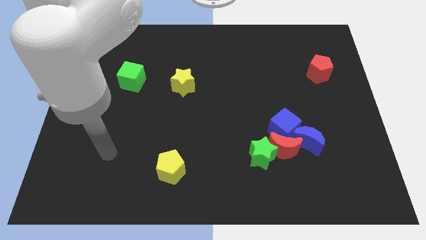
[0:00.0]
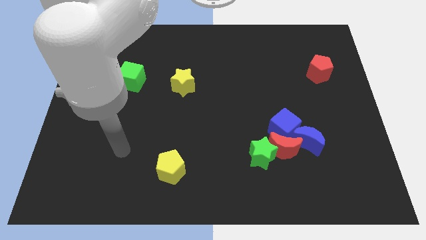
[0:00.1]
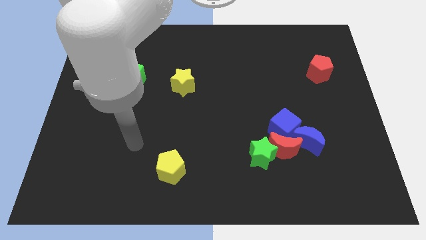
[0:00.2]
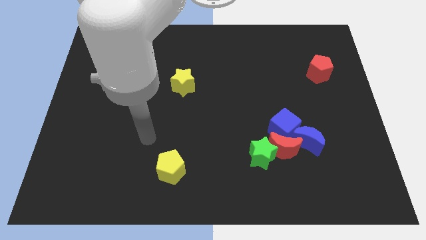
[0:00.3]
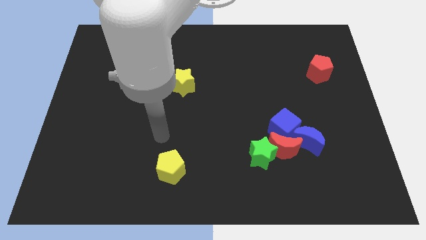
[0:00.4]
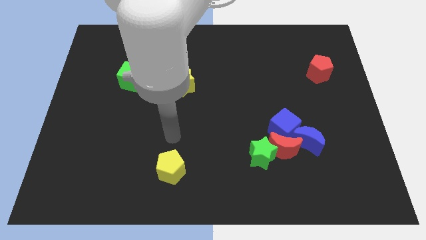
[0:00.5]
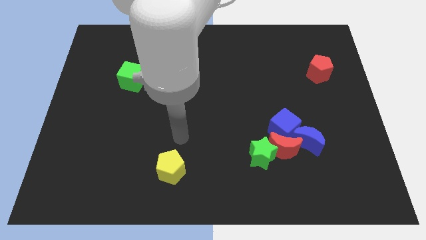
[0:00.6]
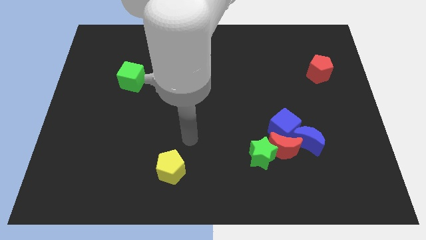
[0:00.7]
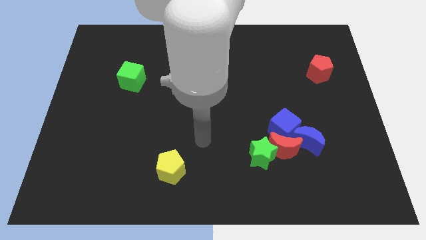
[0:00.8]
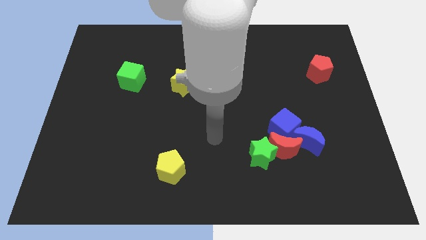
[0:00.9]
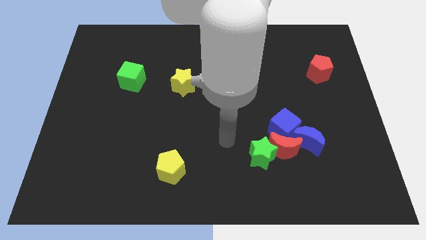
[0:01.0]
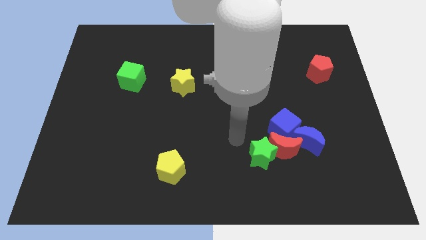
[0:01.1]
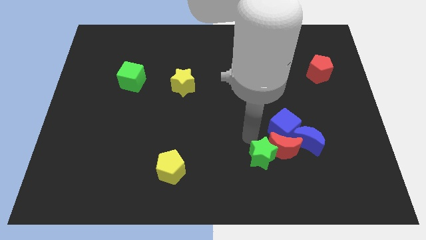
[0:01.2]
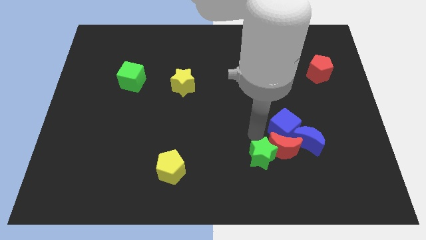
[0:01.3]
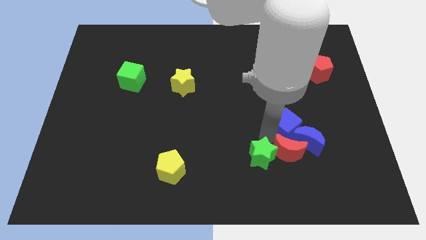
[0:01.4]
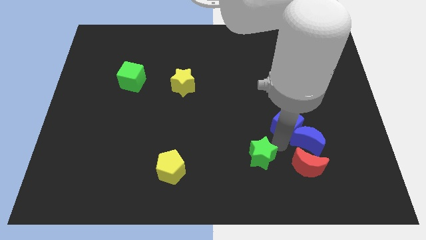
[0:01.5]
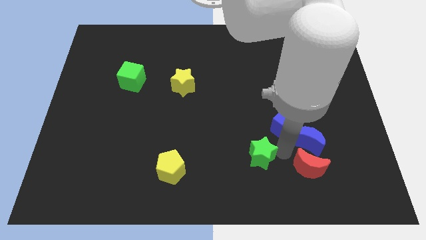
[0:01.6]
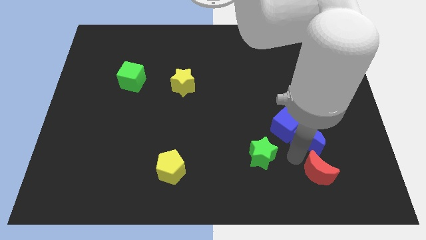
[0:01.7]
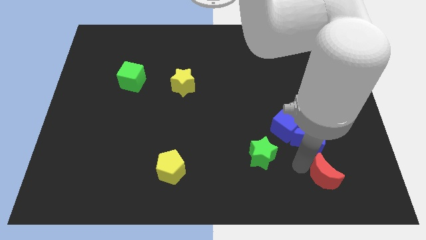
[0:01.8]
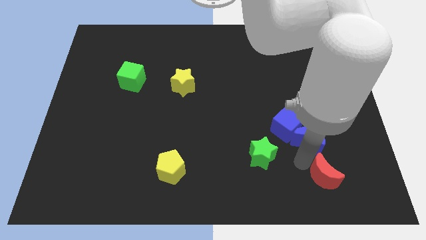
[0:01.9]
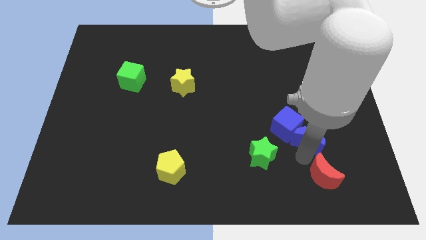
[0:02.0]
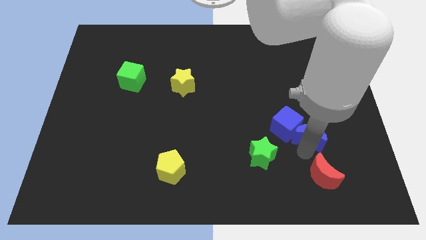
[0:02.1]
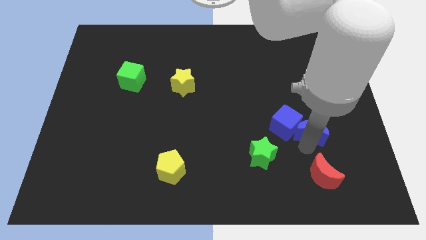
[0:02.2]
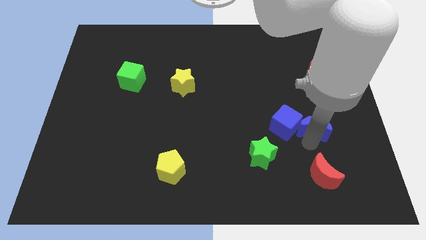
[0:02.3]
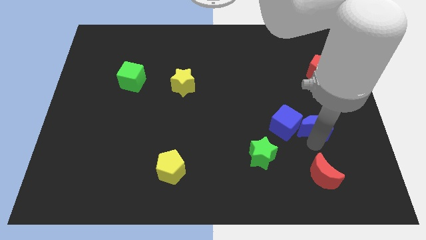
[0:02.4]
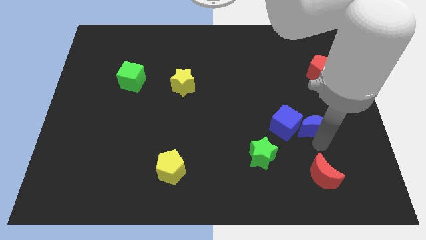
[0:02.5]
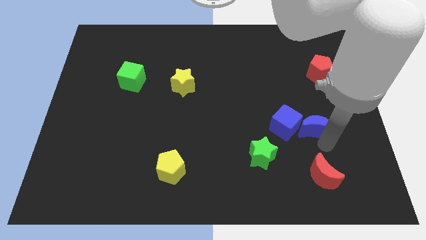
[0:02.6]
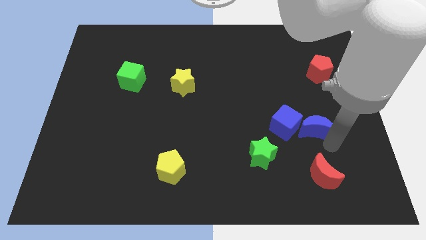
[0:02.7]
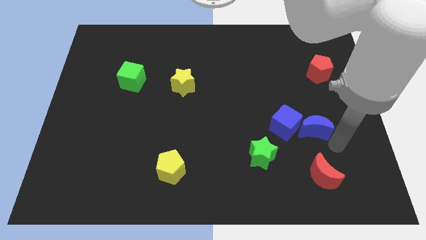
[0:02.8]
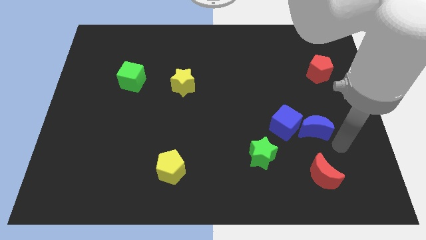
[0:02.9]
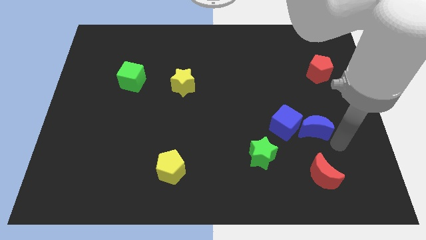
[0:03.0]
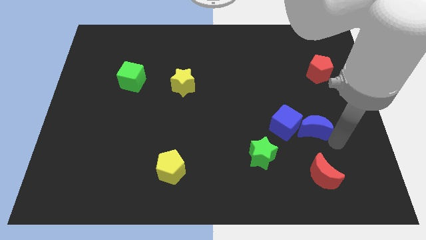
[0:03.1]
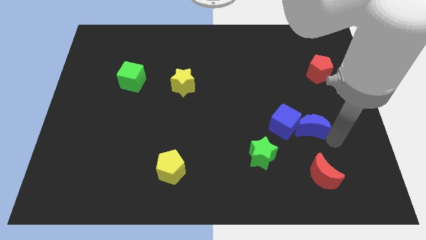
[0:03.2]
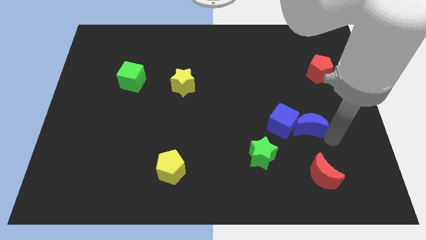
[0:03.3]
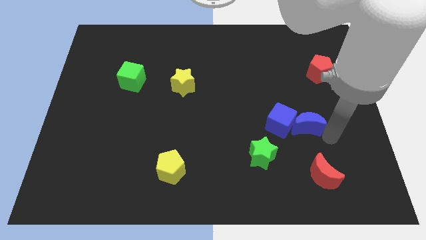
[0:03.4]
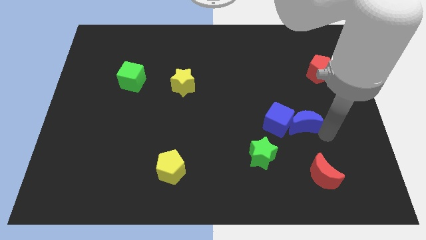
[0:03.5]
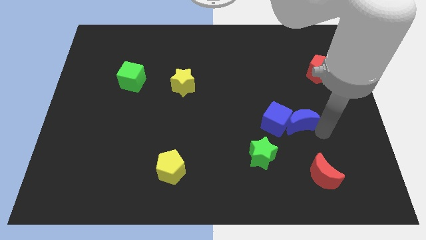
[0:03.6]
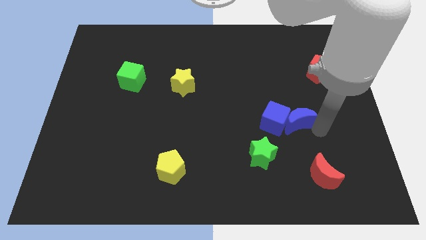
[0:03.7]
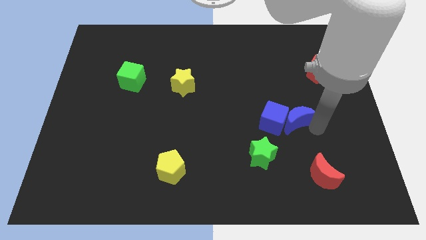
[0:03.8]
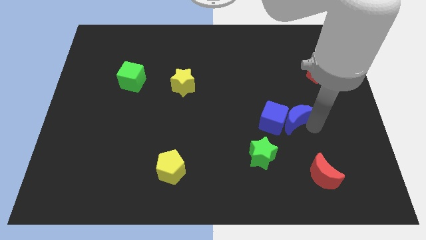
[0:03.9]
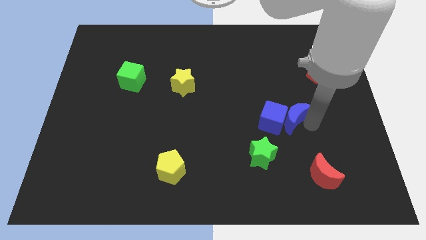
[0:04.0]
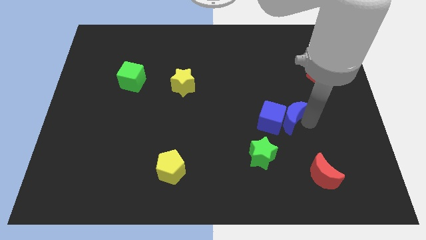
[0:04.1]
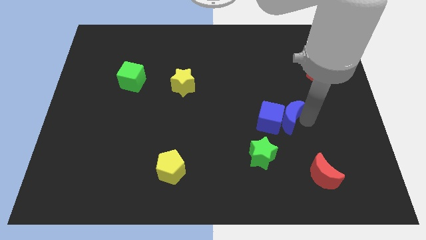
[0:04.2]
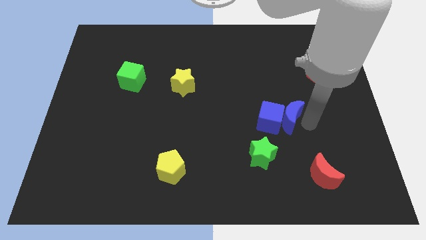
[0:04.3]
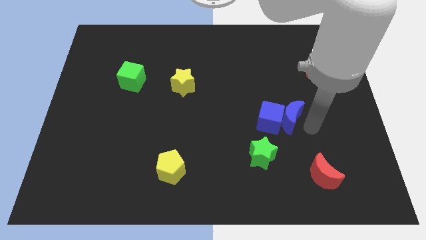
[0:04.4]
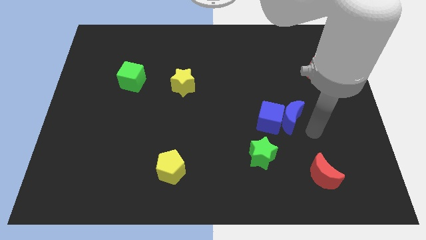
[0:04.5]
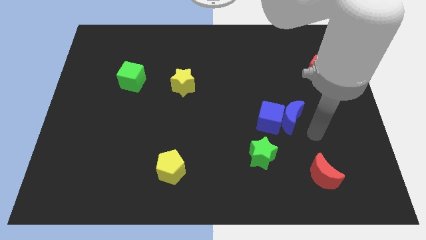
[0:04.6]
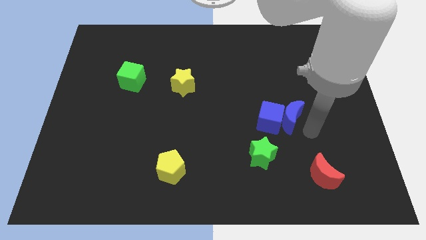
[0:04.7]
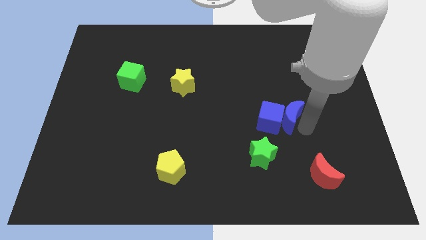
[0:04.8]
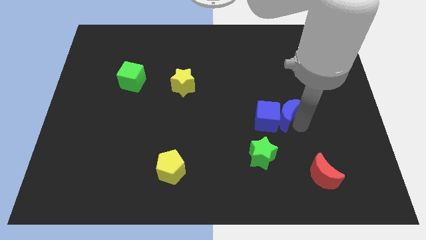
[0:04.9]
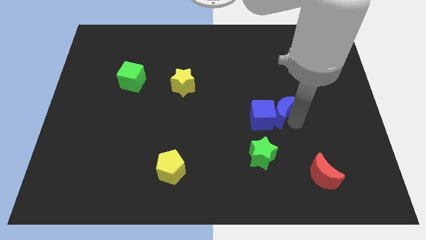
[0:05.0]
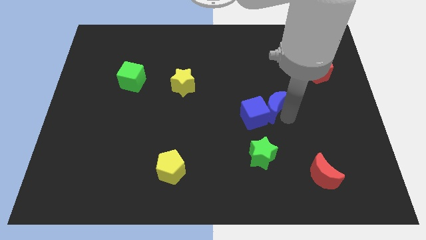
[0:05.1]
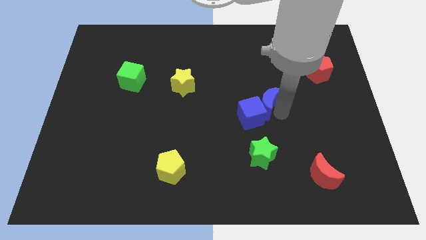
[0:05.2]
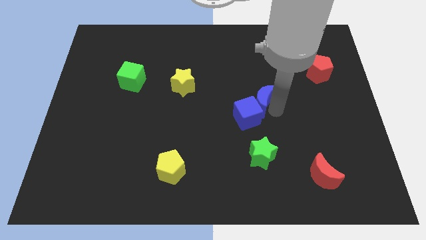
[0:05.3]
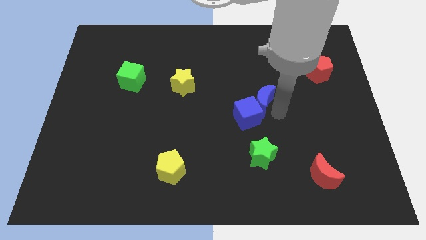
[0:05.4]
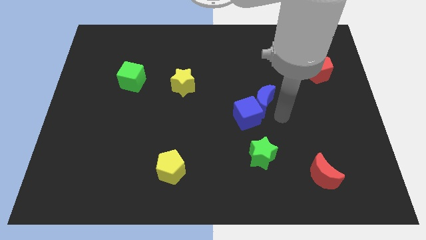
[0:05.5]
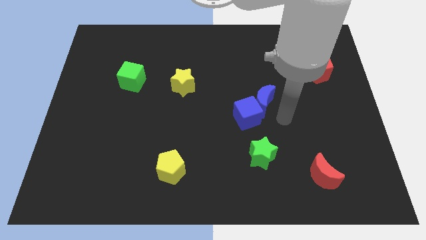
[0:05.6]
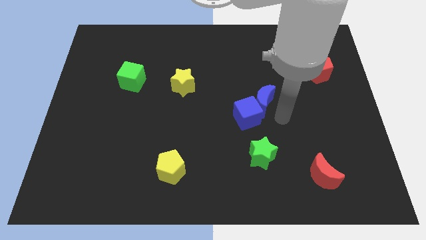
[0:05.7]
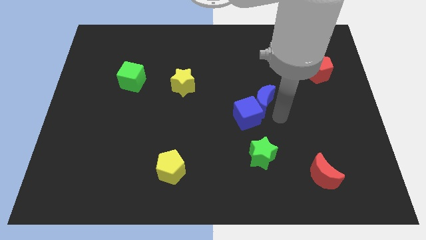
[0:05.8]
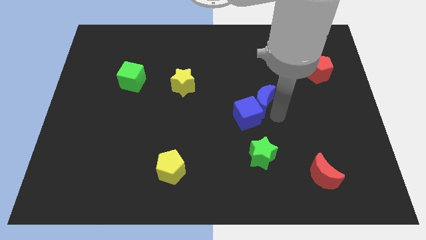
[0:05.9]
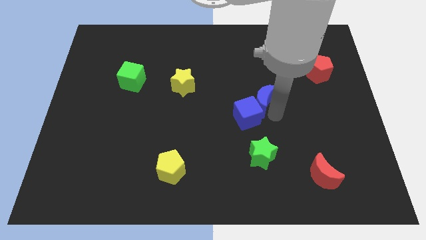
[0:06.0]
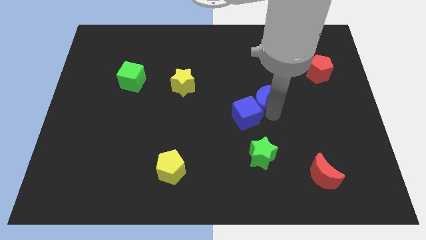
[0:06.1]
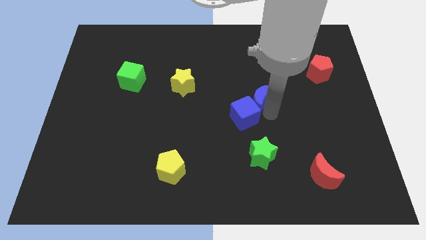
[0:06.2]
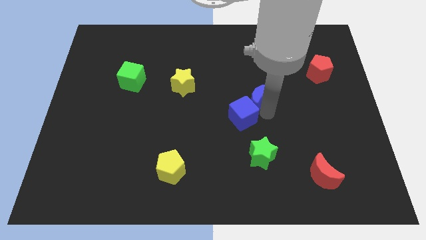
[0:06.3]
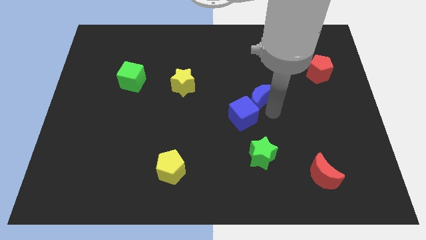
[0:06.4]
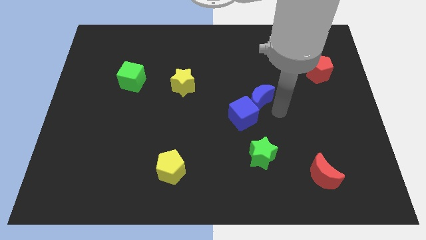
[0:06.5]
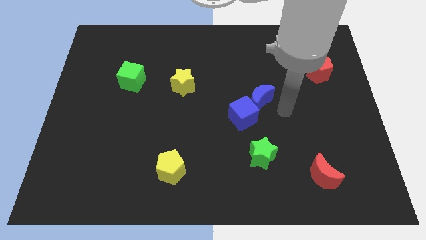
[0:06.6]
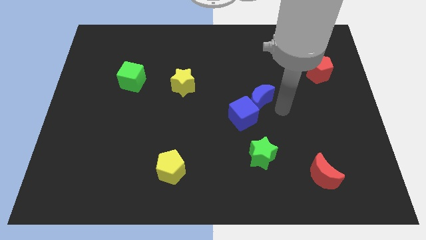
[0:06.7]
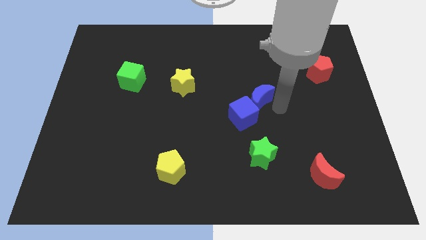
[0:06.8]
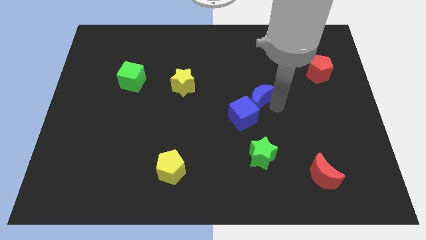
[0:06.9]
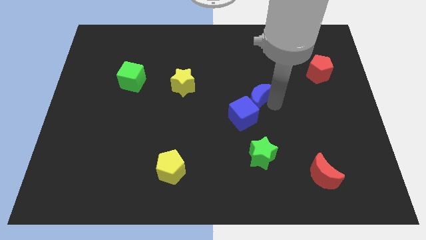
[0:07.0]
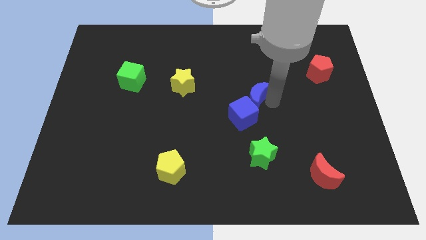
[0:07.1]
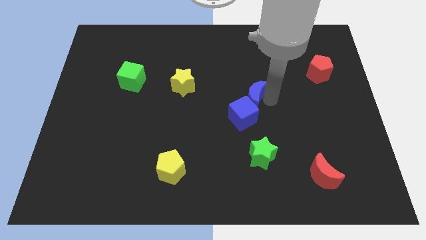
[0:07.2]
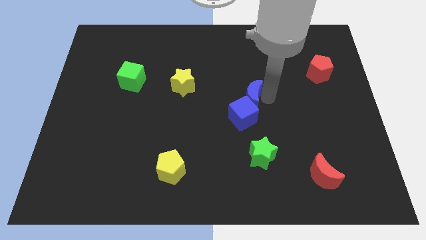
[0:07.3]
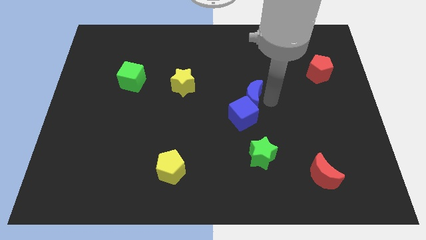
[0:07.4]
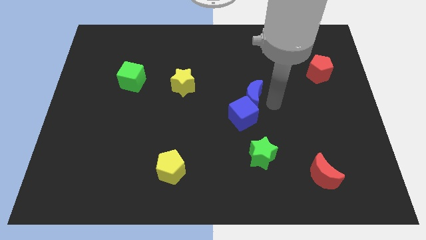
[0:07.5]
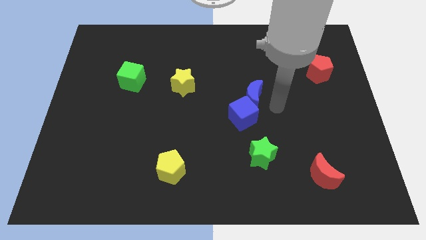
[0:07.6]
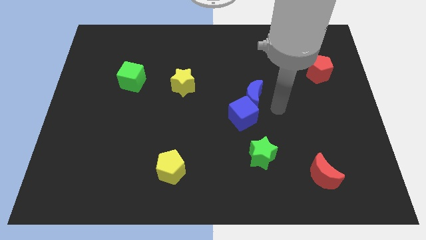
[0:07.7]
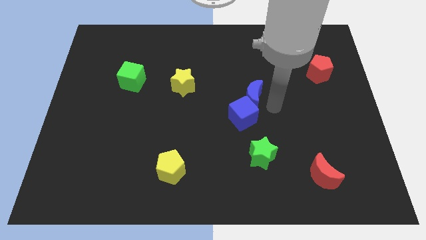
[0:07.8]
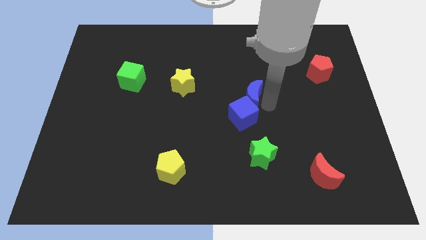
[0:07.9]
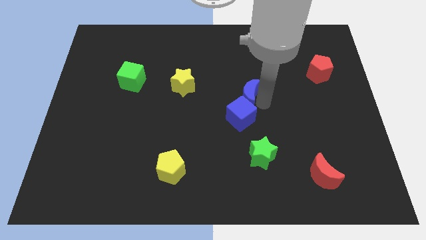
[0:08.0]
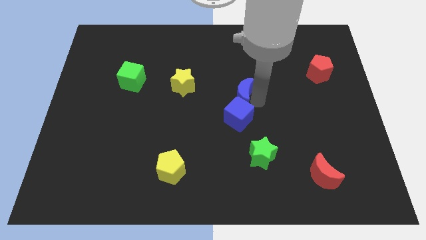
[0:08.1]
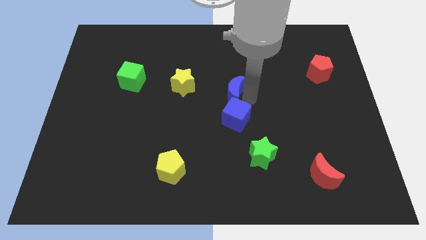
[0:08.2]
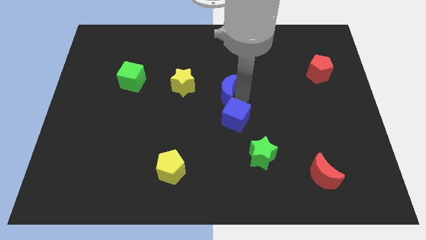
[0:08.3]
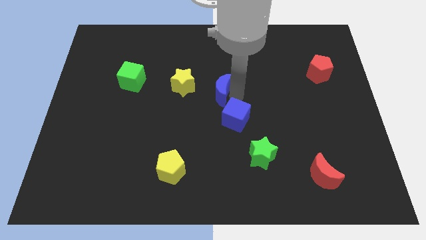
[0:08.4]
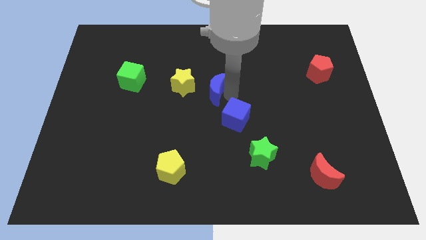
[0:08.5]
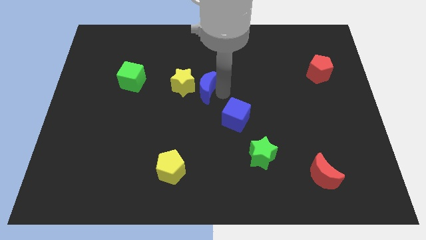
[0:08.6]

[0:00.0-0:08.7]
slide the blue moon close to the yellow star
